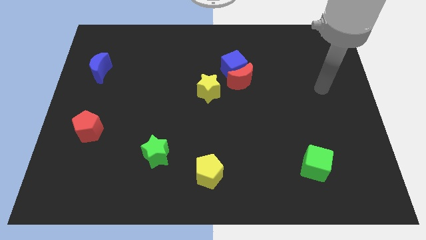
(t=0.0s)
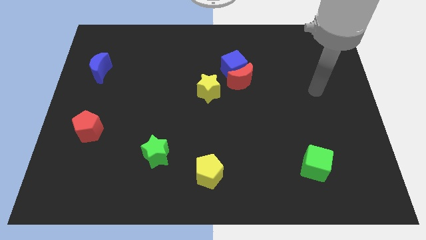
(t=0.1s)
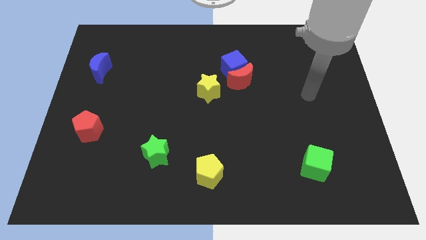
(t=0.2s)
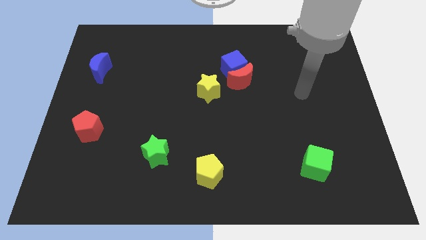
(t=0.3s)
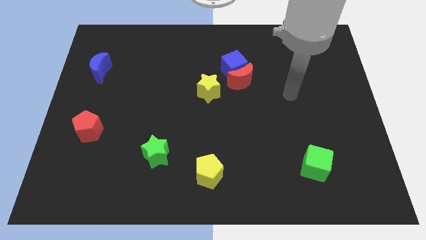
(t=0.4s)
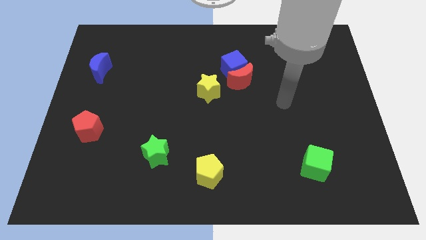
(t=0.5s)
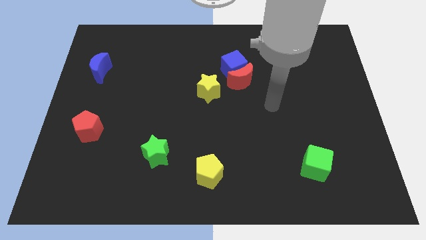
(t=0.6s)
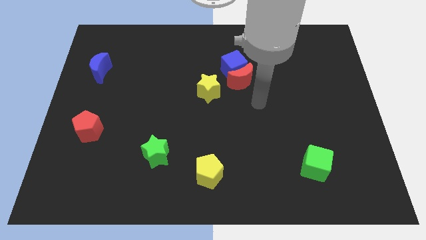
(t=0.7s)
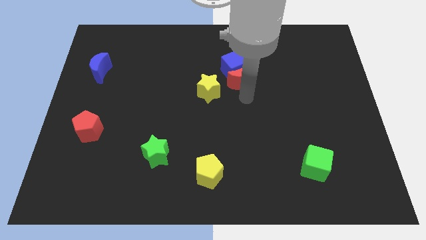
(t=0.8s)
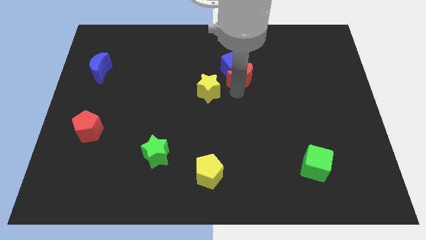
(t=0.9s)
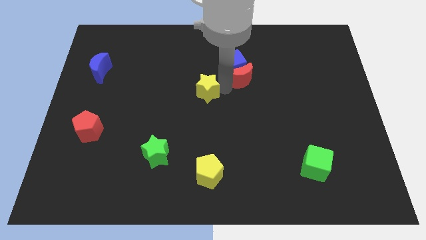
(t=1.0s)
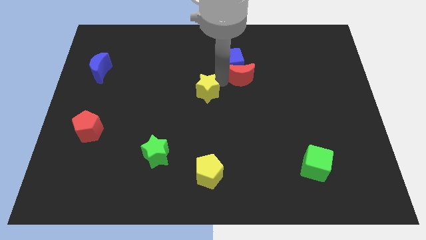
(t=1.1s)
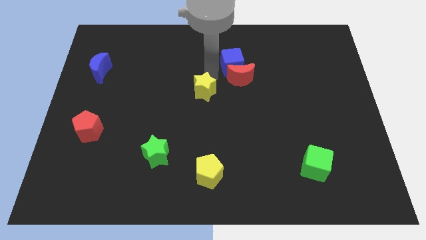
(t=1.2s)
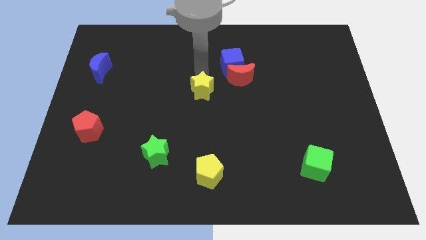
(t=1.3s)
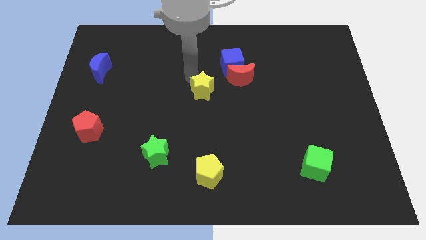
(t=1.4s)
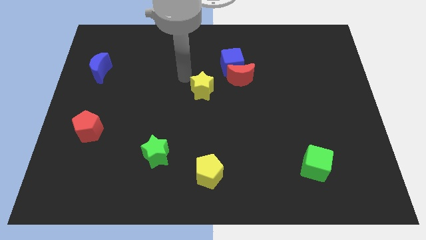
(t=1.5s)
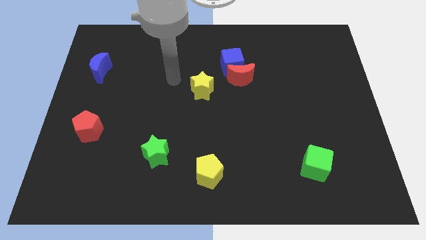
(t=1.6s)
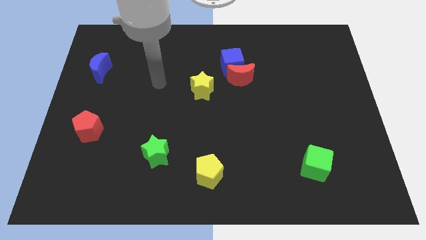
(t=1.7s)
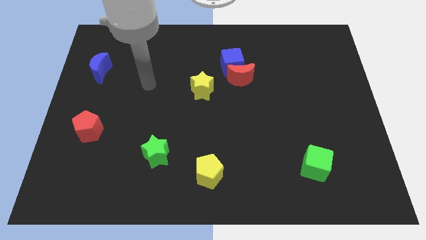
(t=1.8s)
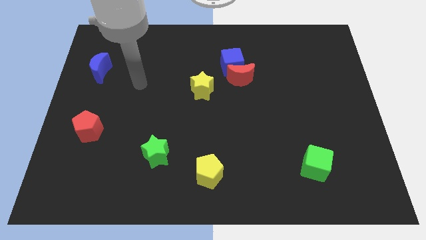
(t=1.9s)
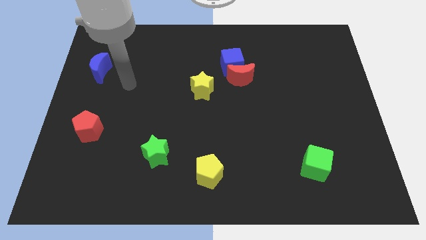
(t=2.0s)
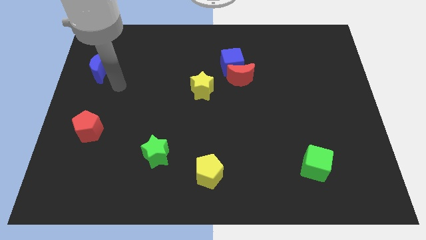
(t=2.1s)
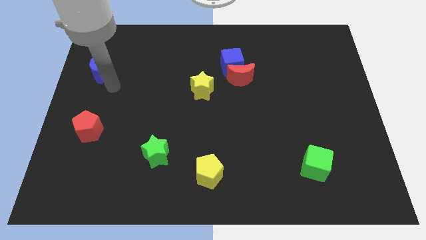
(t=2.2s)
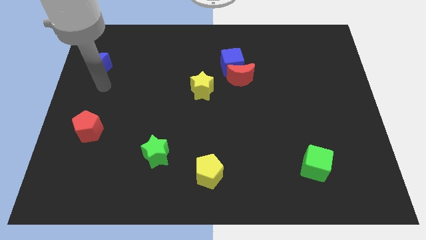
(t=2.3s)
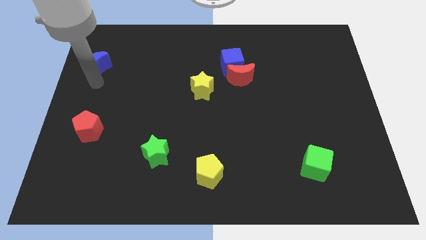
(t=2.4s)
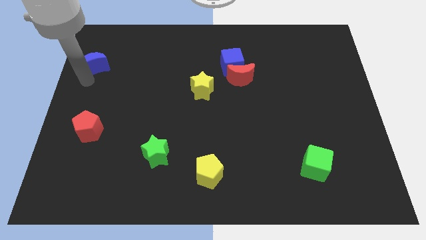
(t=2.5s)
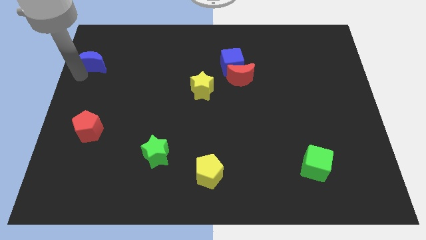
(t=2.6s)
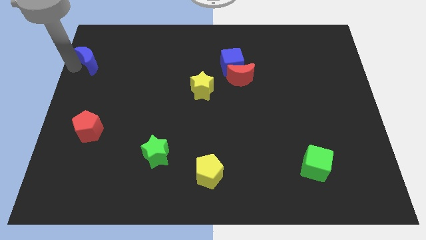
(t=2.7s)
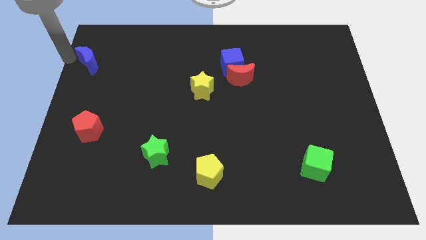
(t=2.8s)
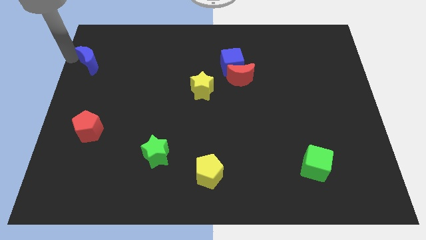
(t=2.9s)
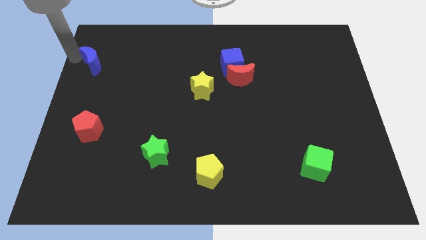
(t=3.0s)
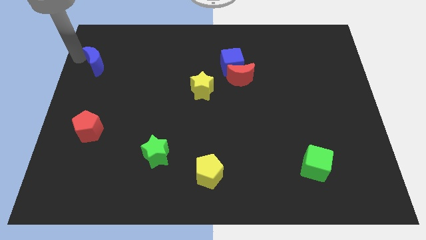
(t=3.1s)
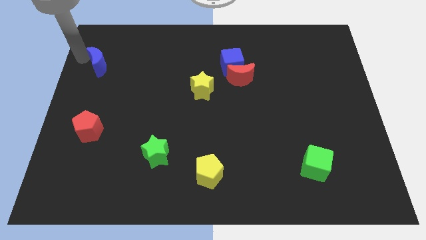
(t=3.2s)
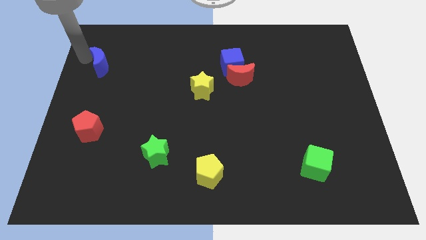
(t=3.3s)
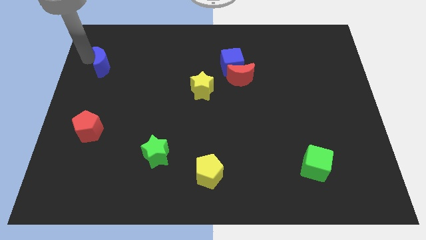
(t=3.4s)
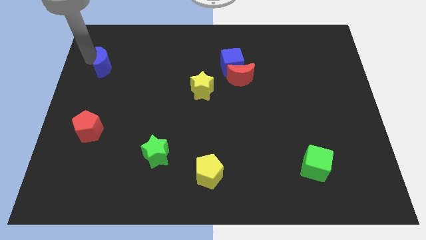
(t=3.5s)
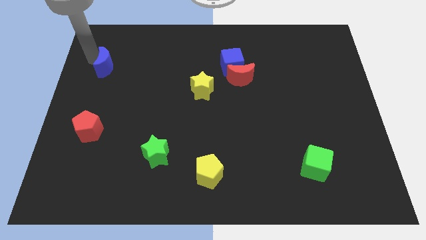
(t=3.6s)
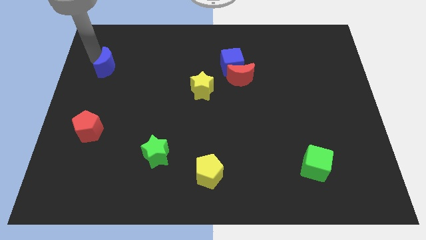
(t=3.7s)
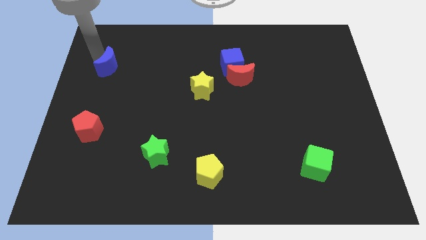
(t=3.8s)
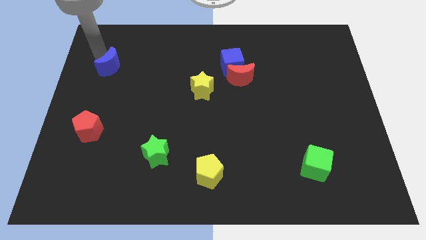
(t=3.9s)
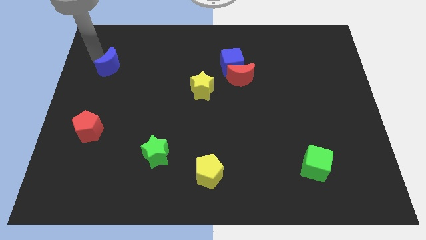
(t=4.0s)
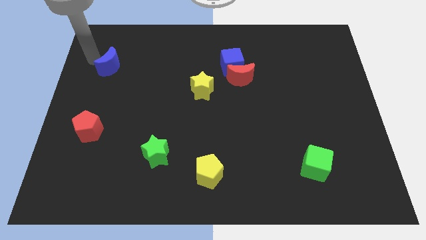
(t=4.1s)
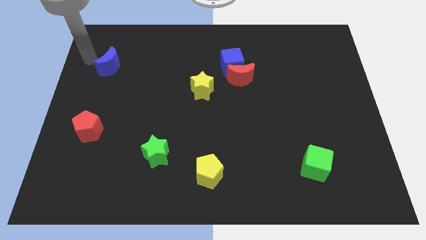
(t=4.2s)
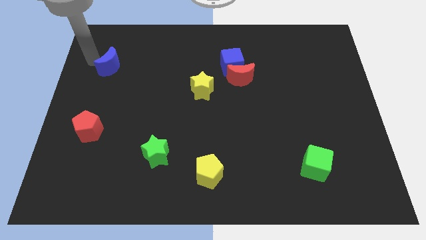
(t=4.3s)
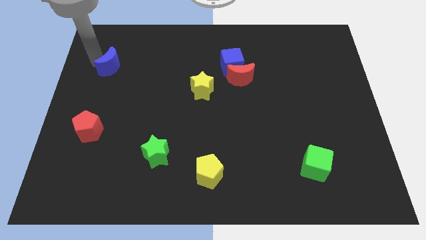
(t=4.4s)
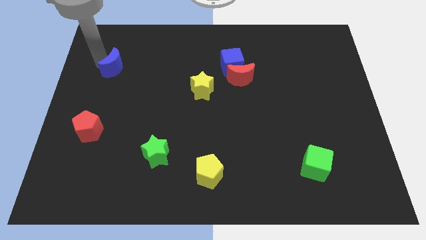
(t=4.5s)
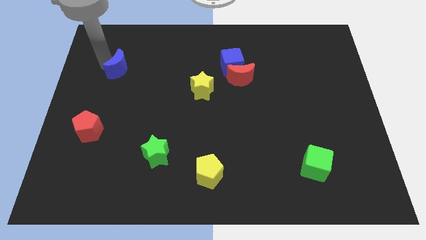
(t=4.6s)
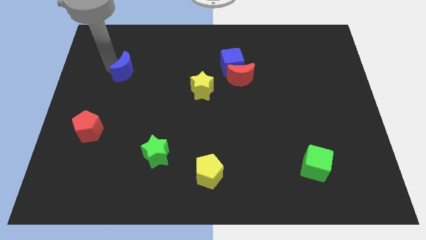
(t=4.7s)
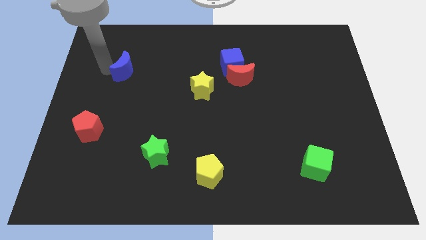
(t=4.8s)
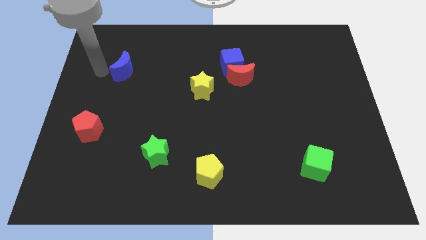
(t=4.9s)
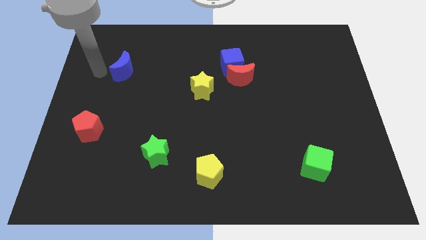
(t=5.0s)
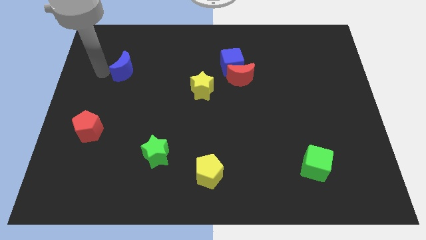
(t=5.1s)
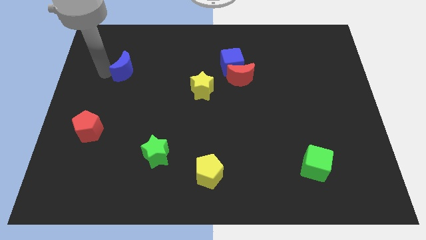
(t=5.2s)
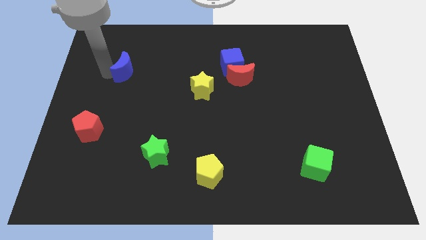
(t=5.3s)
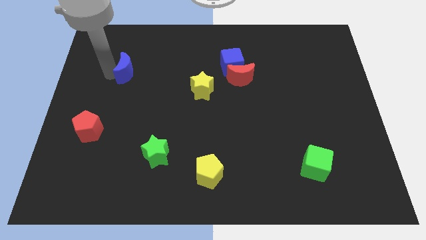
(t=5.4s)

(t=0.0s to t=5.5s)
slide the blue moon right a little

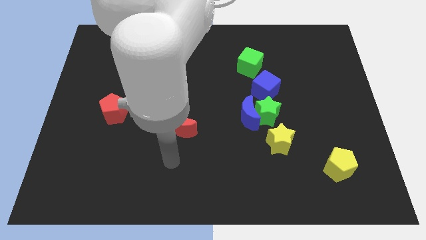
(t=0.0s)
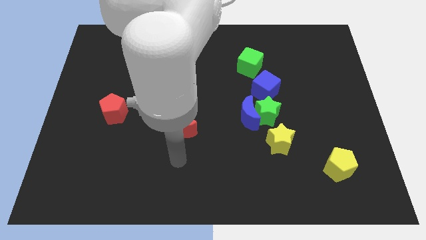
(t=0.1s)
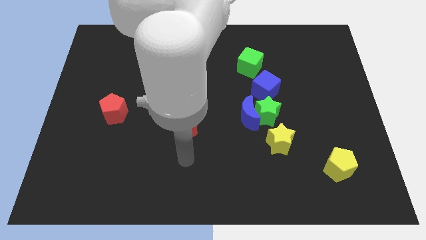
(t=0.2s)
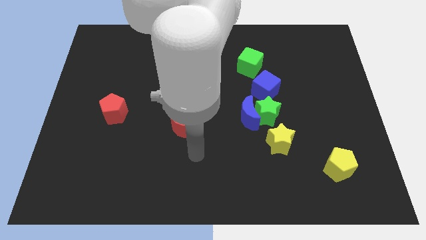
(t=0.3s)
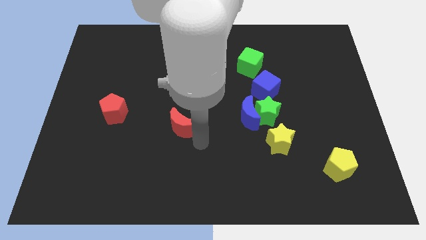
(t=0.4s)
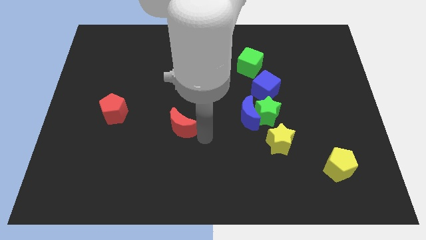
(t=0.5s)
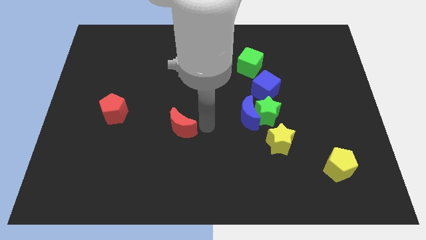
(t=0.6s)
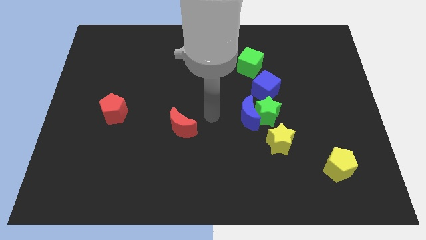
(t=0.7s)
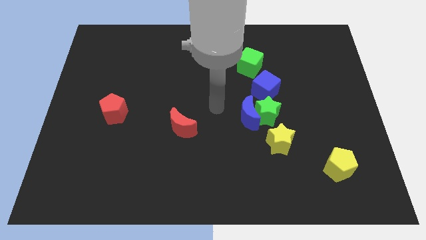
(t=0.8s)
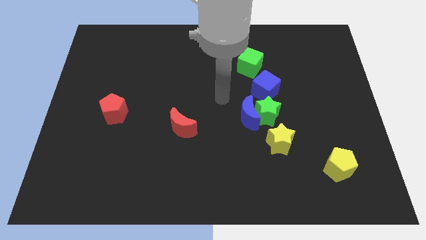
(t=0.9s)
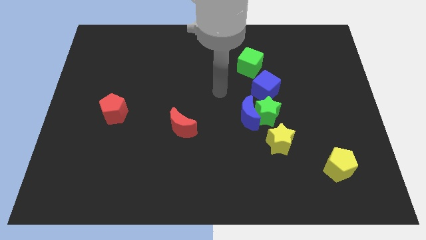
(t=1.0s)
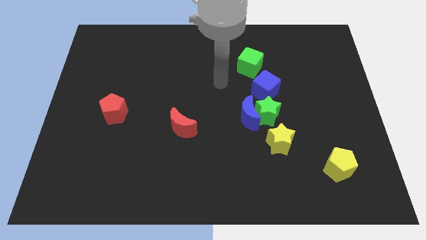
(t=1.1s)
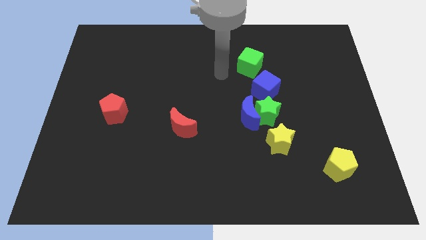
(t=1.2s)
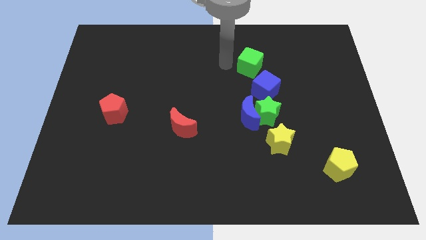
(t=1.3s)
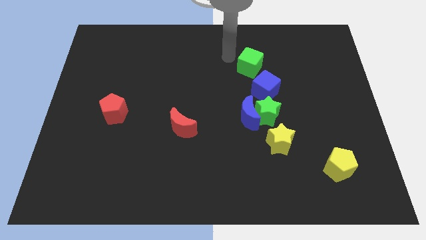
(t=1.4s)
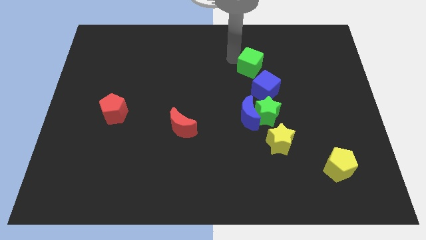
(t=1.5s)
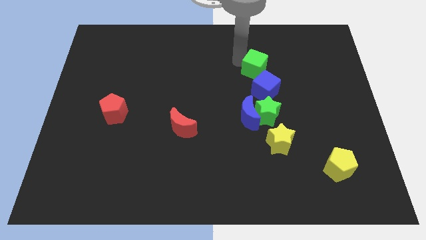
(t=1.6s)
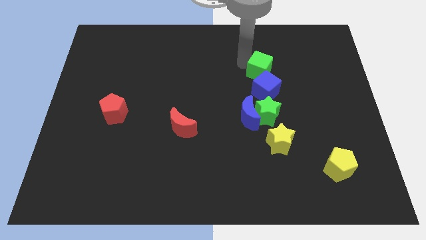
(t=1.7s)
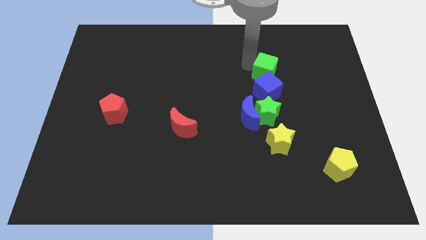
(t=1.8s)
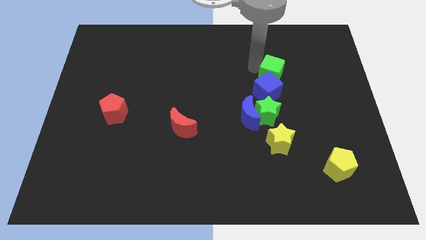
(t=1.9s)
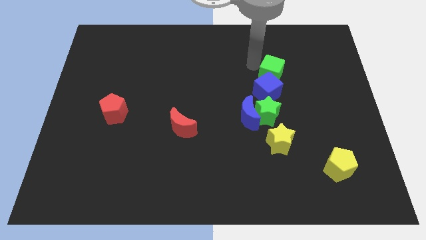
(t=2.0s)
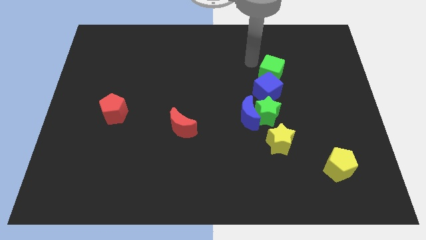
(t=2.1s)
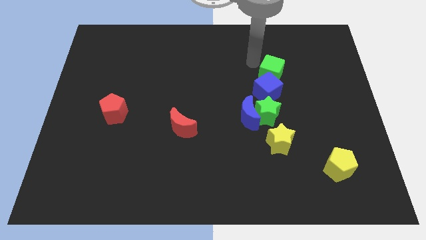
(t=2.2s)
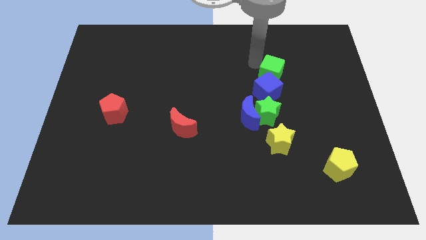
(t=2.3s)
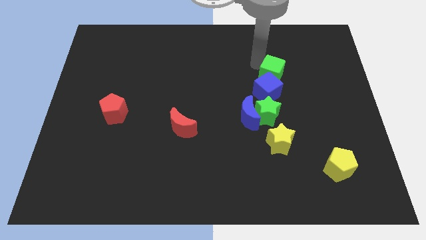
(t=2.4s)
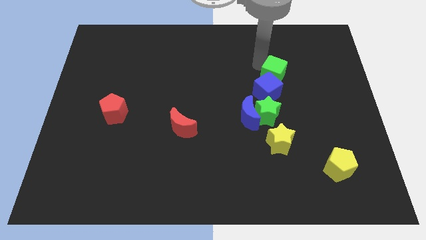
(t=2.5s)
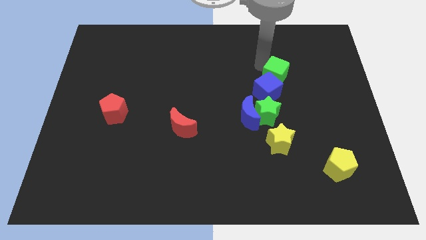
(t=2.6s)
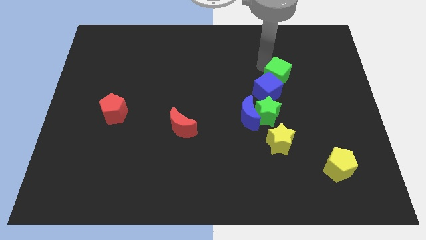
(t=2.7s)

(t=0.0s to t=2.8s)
slide the green cube somewhat diagonally down and right
